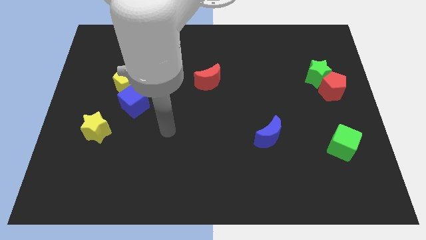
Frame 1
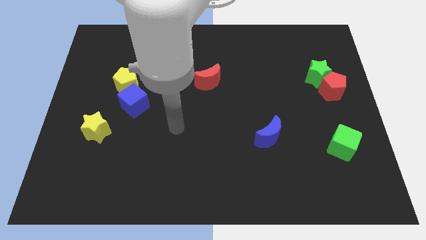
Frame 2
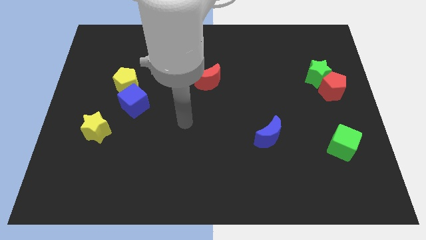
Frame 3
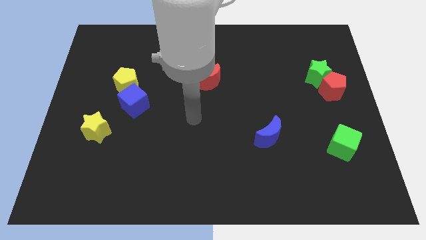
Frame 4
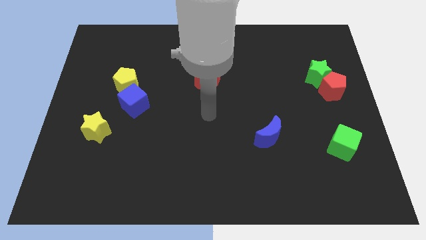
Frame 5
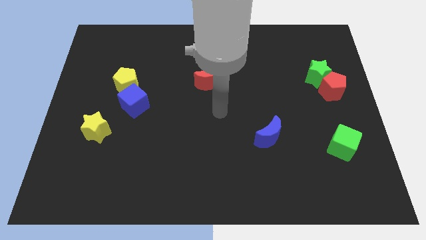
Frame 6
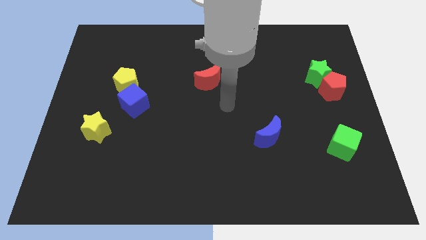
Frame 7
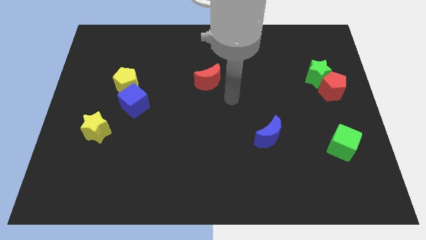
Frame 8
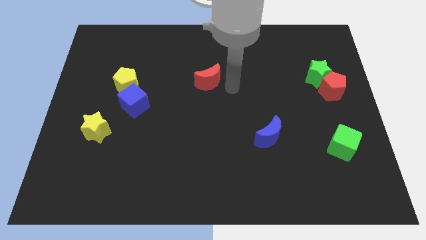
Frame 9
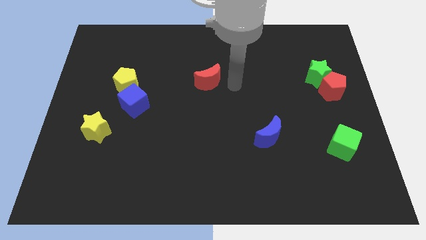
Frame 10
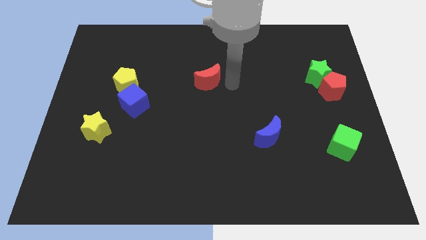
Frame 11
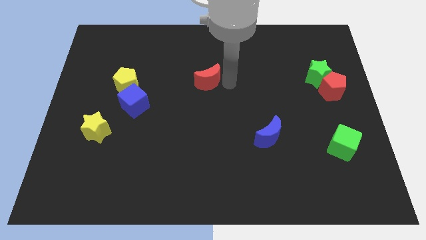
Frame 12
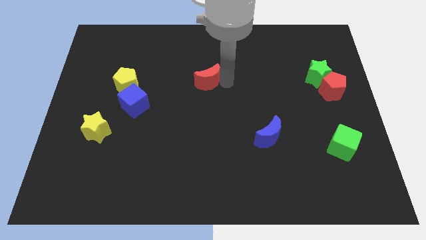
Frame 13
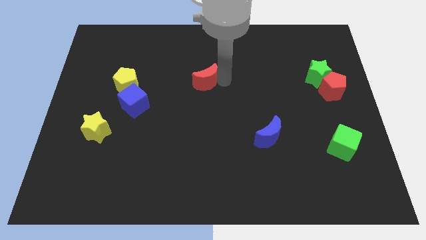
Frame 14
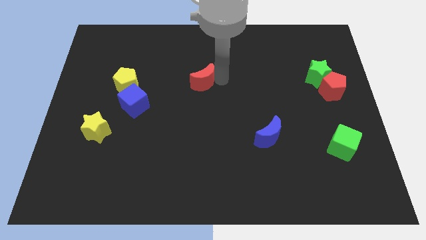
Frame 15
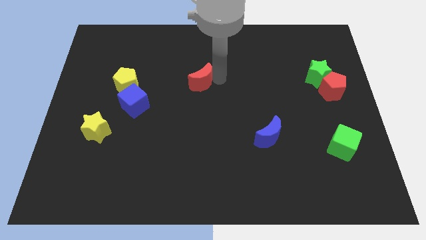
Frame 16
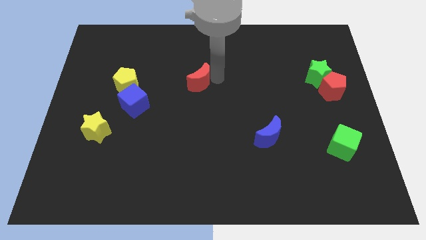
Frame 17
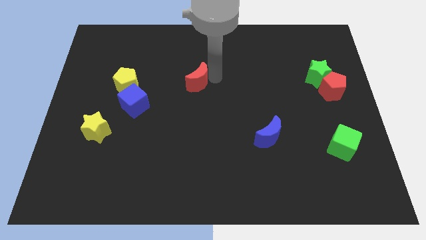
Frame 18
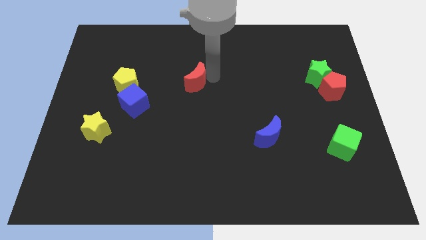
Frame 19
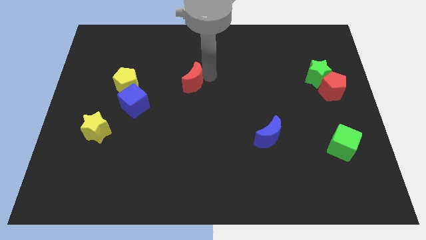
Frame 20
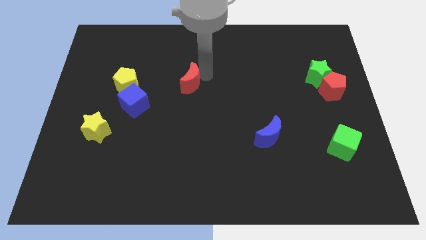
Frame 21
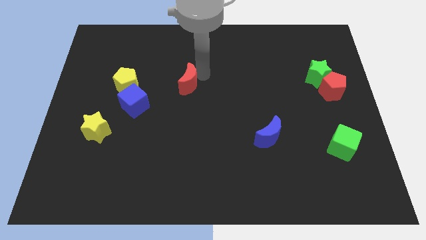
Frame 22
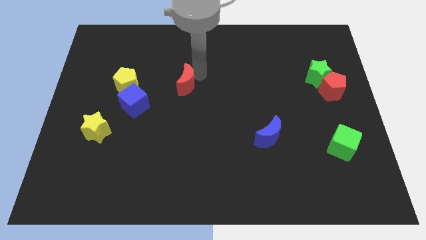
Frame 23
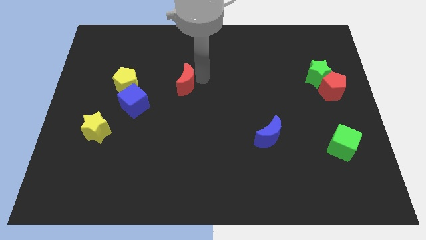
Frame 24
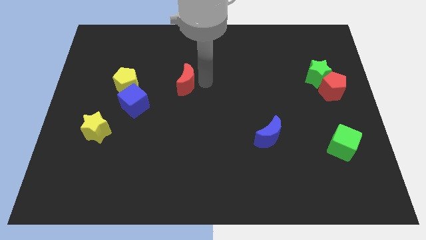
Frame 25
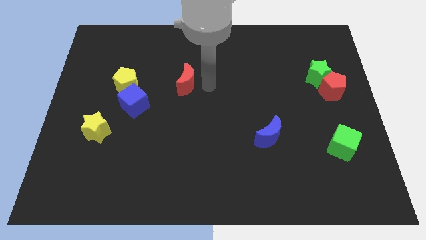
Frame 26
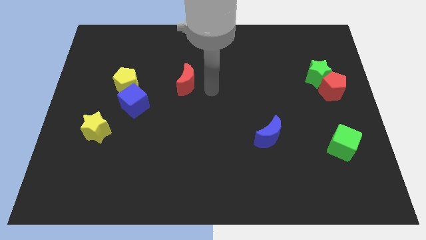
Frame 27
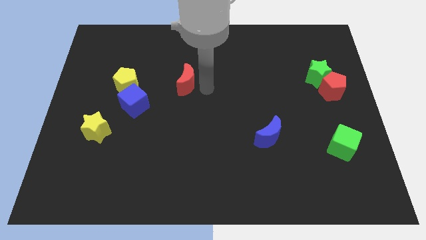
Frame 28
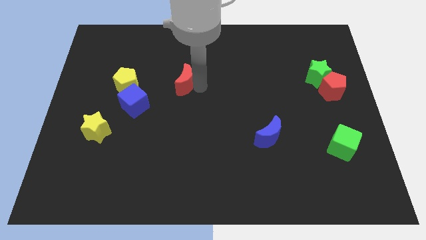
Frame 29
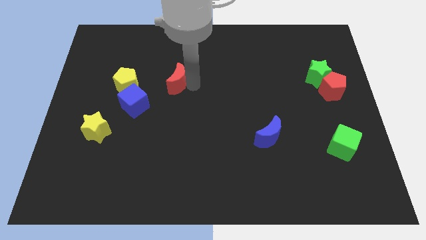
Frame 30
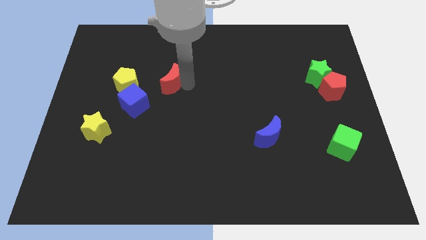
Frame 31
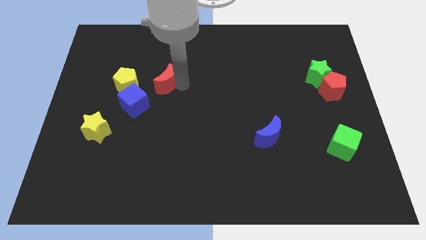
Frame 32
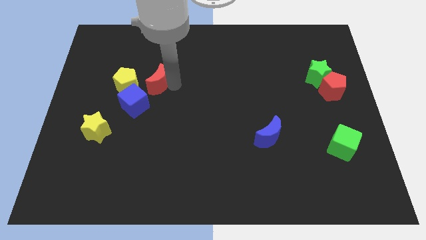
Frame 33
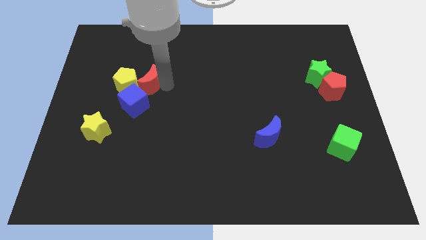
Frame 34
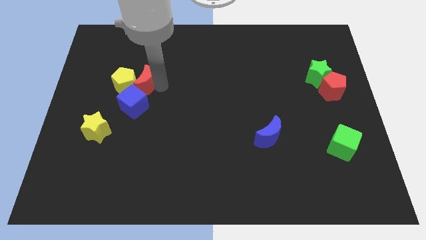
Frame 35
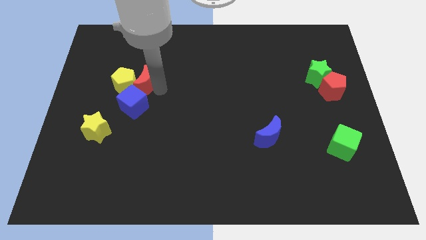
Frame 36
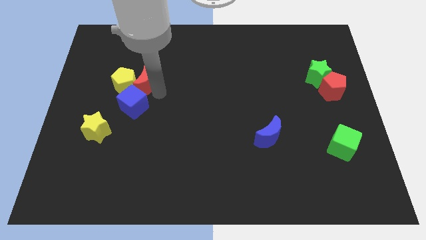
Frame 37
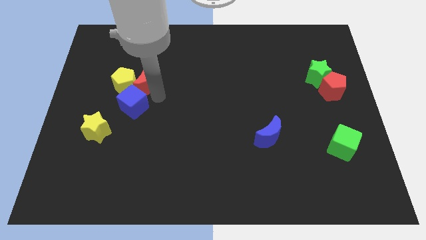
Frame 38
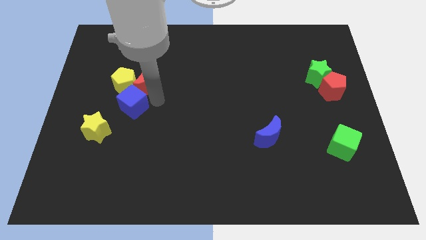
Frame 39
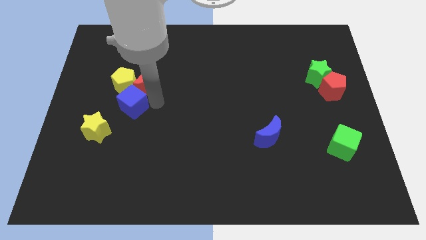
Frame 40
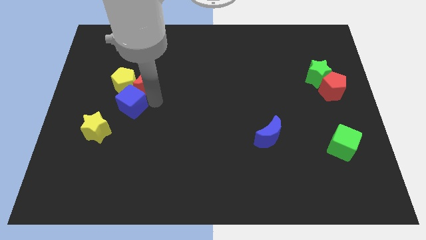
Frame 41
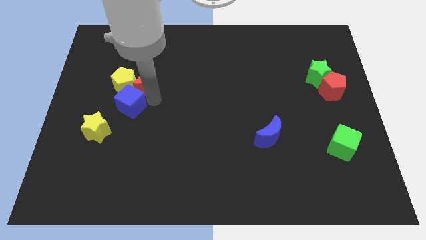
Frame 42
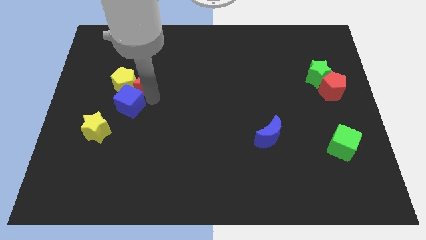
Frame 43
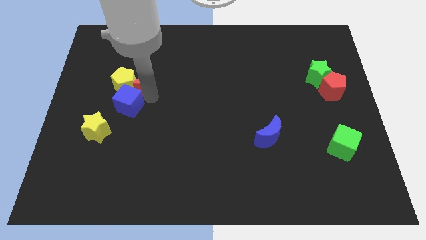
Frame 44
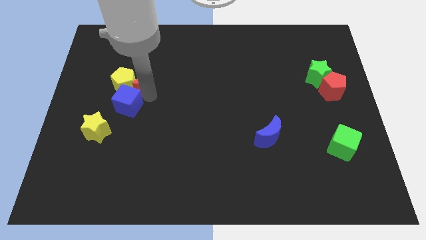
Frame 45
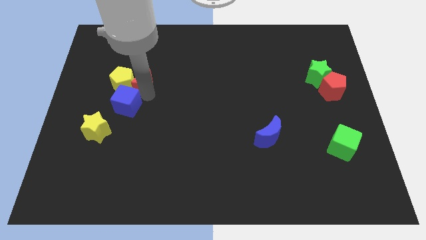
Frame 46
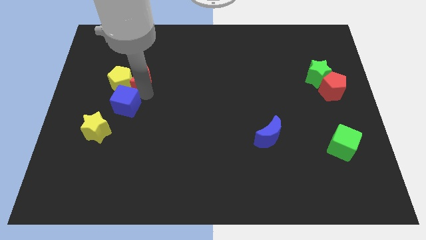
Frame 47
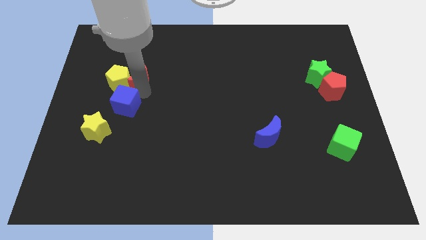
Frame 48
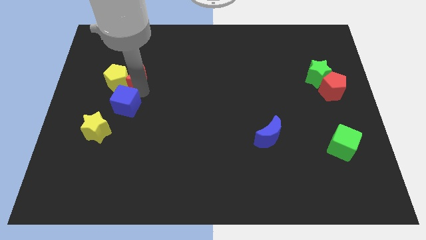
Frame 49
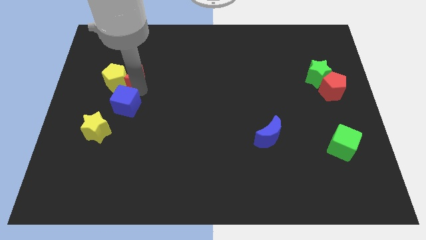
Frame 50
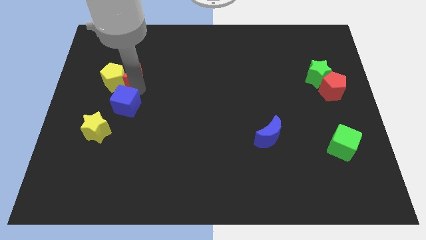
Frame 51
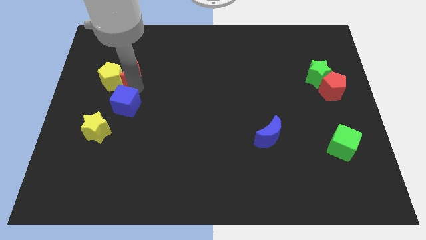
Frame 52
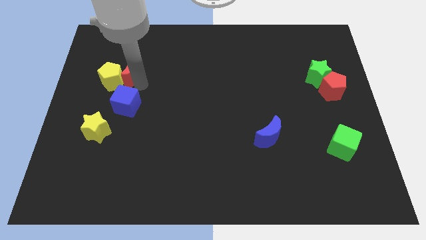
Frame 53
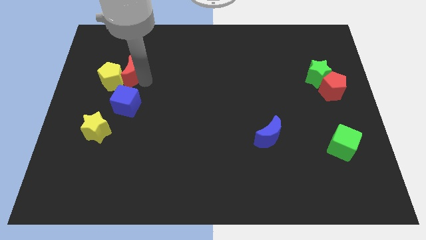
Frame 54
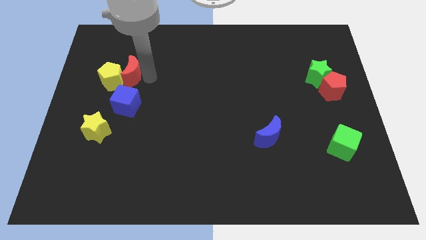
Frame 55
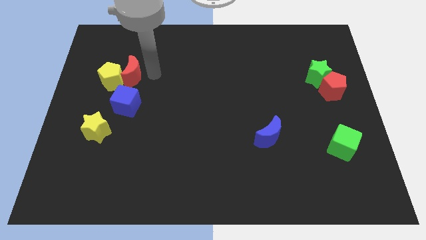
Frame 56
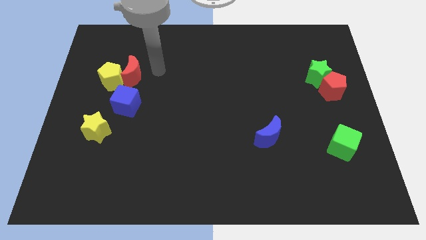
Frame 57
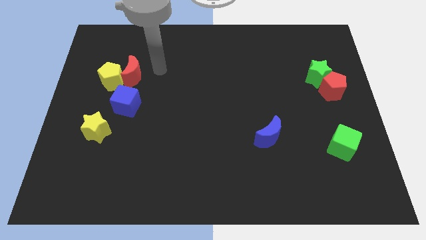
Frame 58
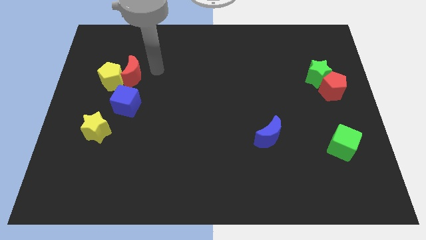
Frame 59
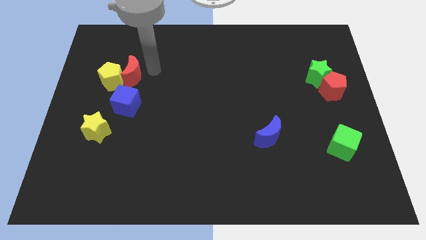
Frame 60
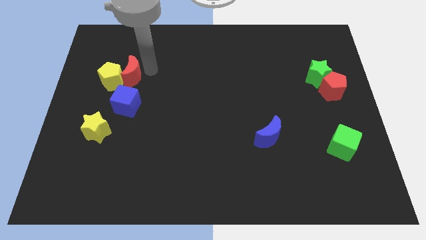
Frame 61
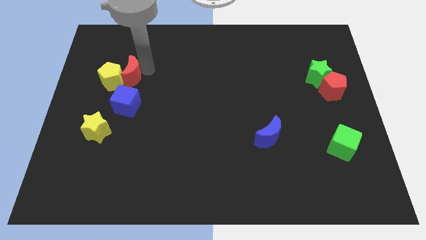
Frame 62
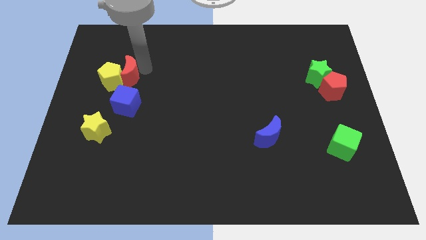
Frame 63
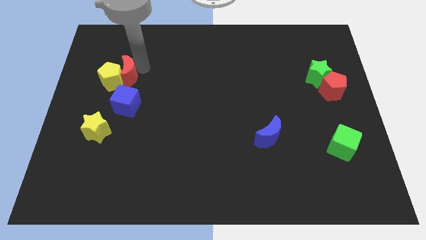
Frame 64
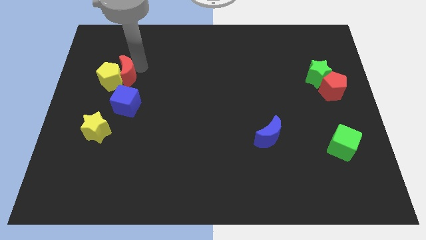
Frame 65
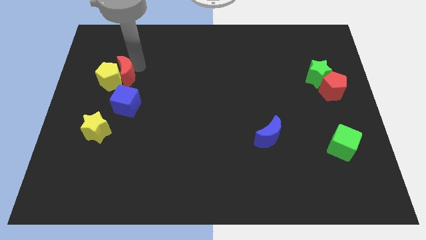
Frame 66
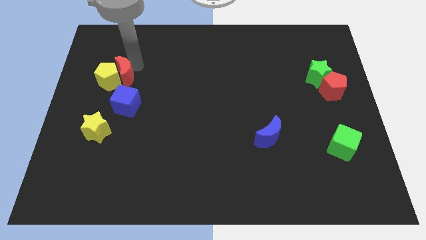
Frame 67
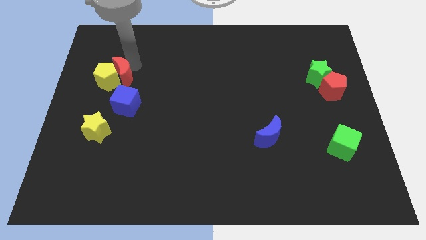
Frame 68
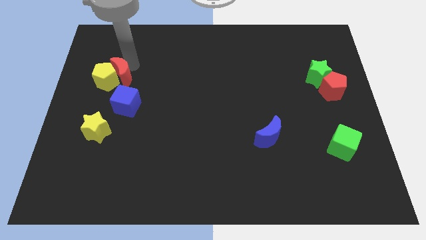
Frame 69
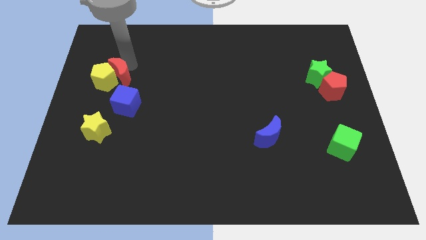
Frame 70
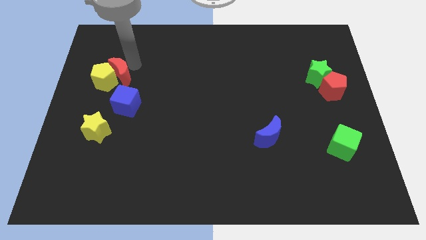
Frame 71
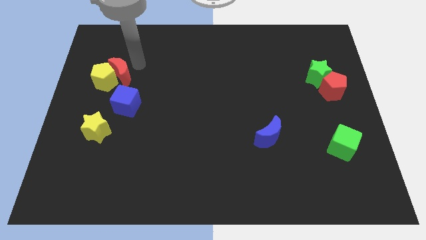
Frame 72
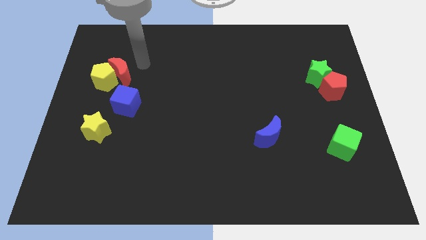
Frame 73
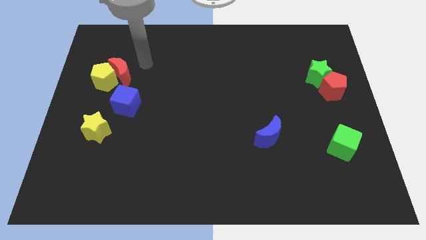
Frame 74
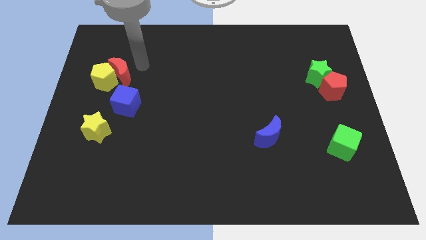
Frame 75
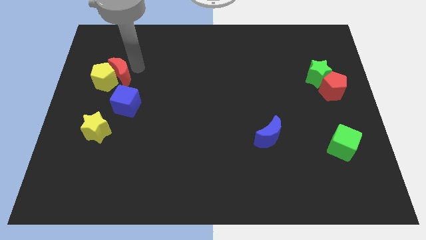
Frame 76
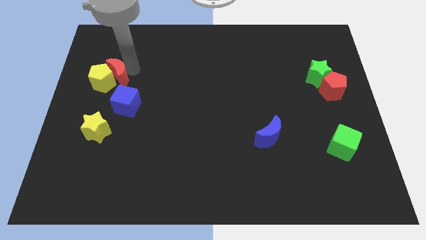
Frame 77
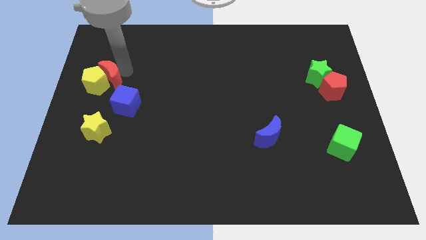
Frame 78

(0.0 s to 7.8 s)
push the red moon to the top of the yellow star
